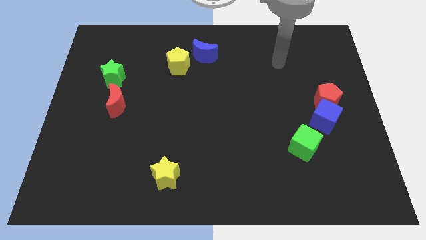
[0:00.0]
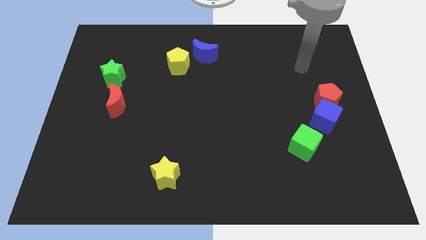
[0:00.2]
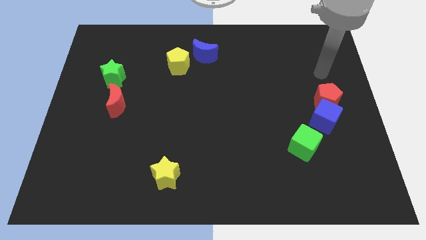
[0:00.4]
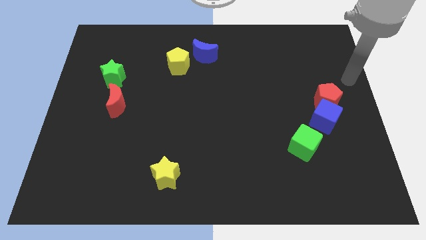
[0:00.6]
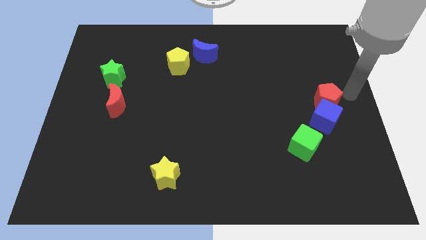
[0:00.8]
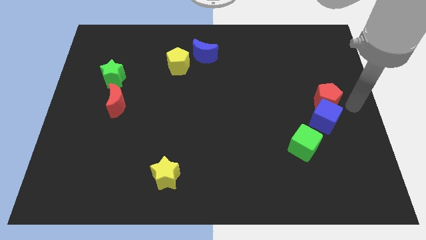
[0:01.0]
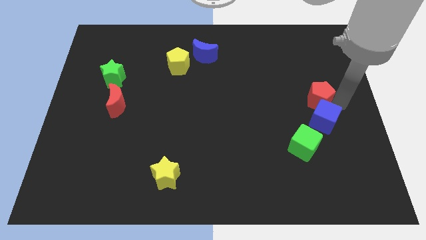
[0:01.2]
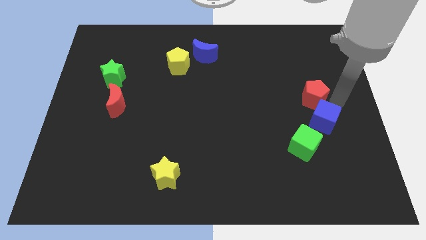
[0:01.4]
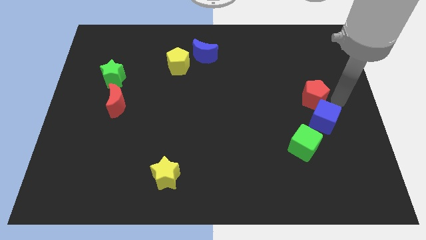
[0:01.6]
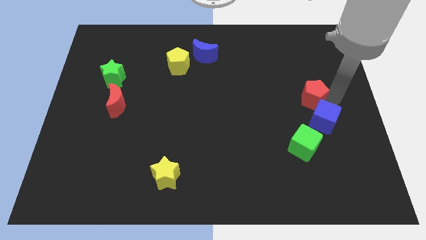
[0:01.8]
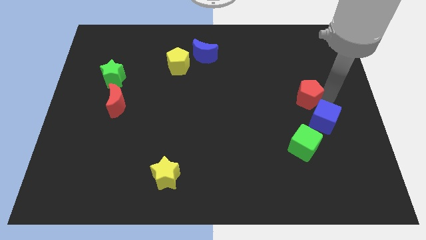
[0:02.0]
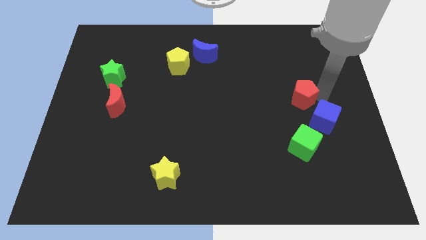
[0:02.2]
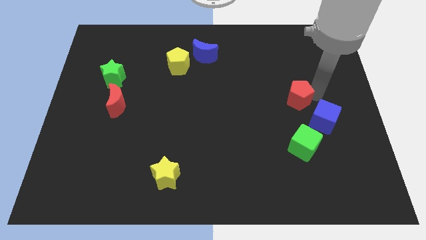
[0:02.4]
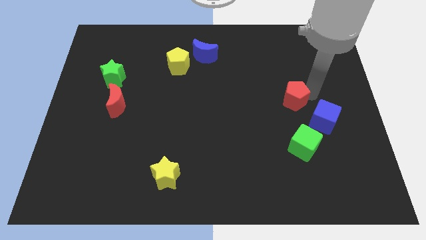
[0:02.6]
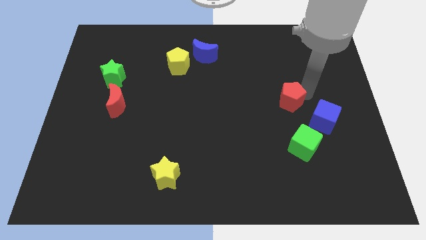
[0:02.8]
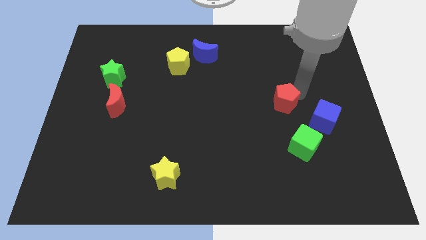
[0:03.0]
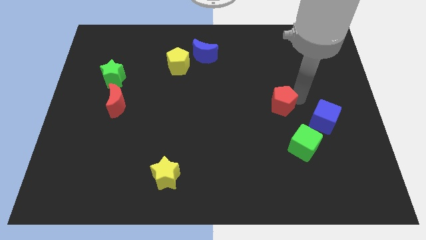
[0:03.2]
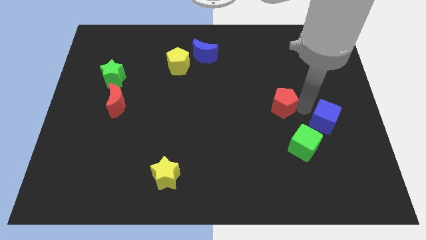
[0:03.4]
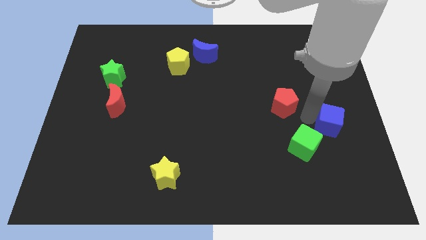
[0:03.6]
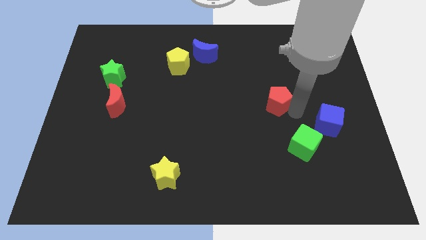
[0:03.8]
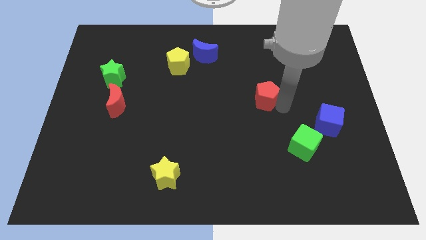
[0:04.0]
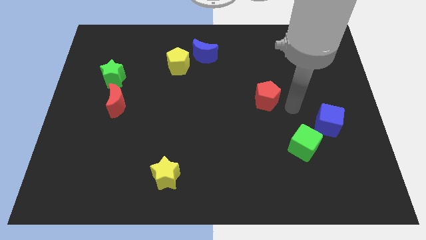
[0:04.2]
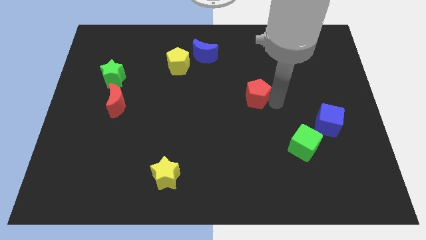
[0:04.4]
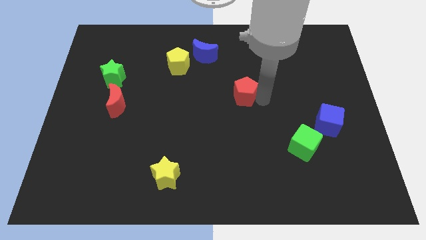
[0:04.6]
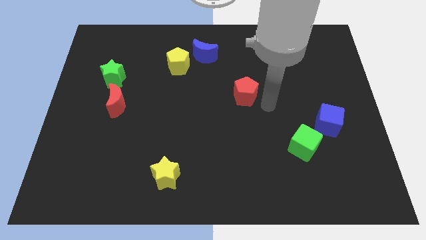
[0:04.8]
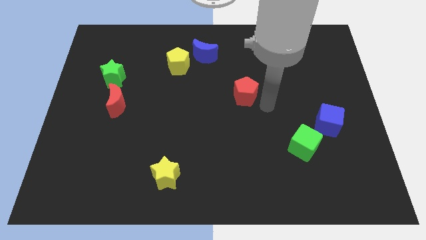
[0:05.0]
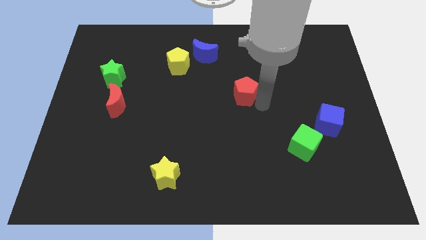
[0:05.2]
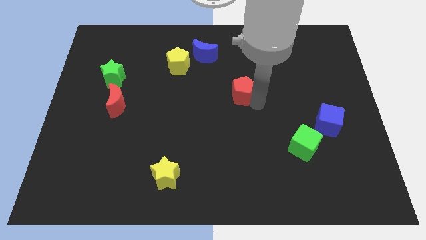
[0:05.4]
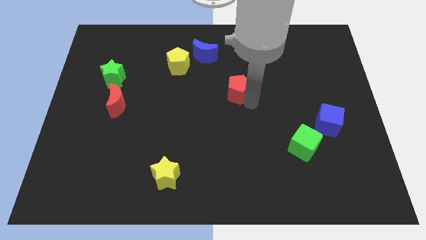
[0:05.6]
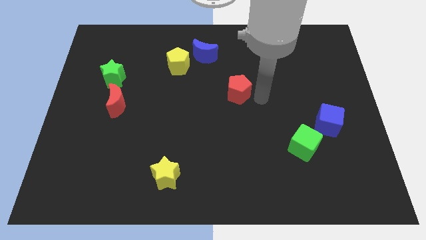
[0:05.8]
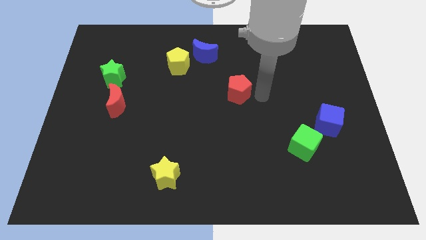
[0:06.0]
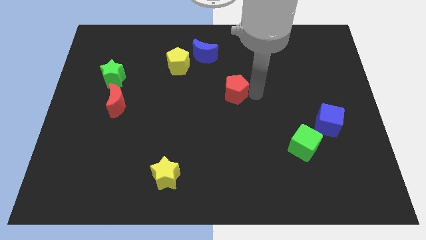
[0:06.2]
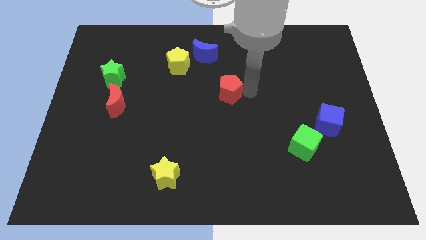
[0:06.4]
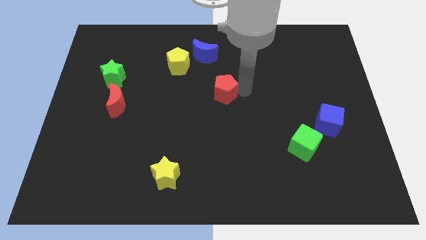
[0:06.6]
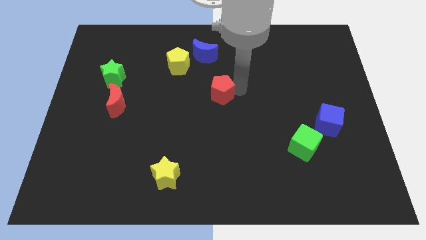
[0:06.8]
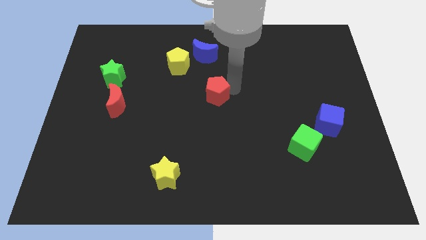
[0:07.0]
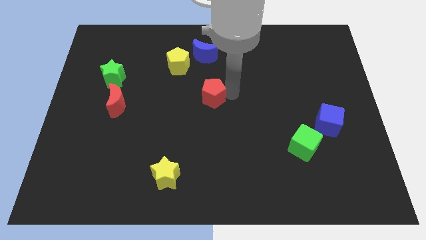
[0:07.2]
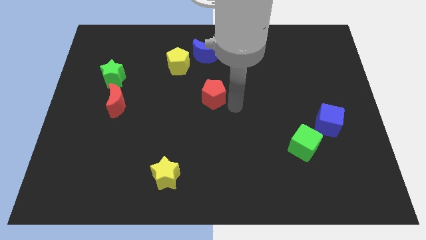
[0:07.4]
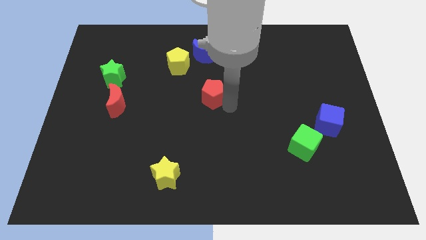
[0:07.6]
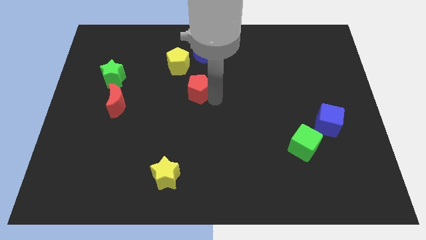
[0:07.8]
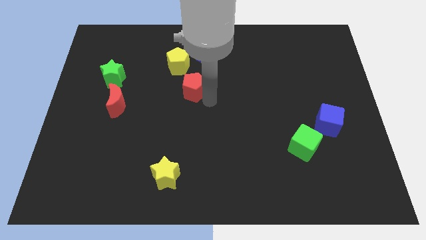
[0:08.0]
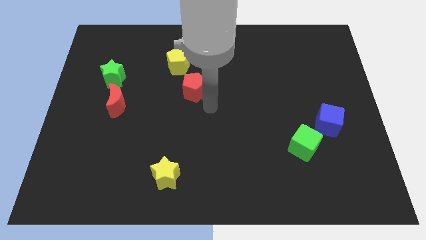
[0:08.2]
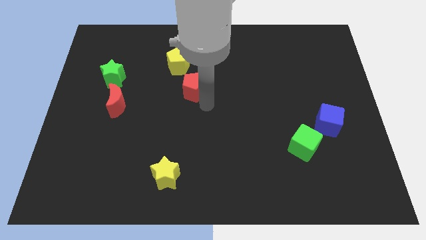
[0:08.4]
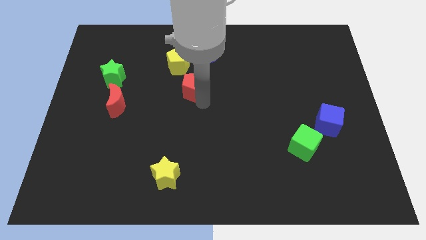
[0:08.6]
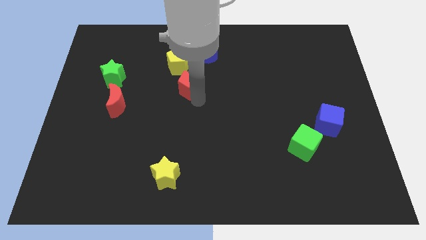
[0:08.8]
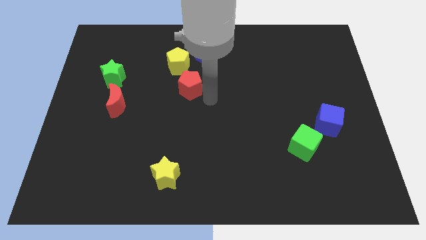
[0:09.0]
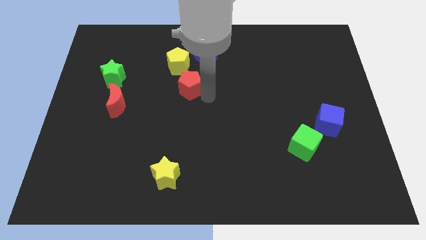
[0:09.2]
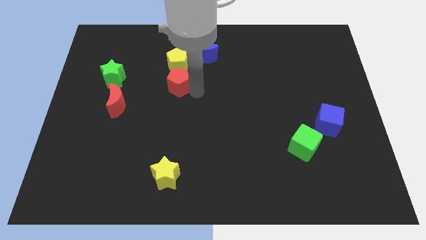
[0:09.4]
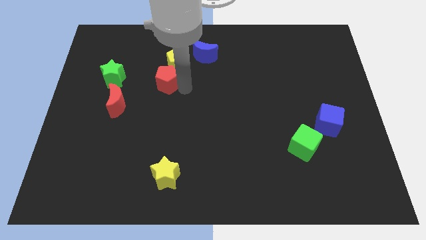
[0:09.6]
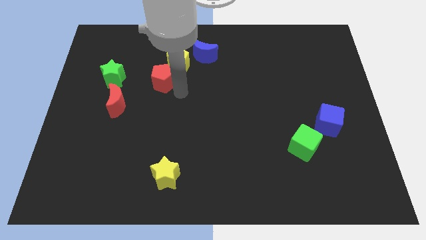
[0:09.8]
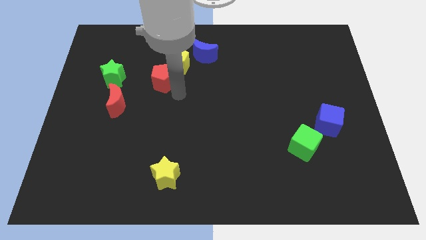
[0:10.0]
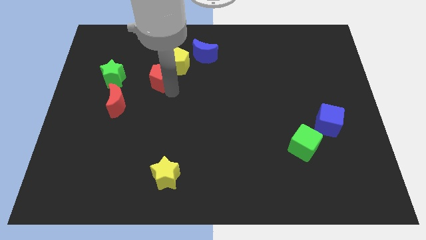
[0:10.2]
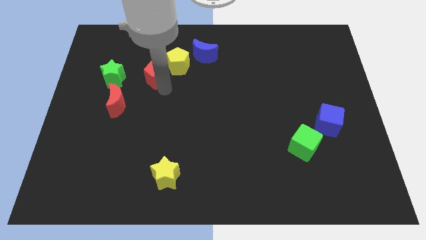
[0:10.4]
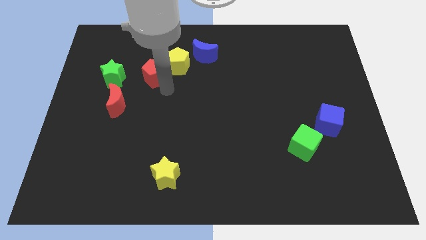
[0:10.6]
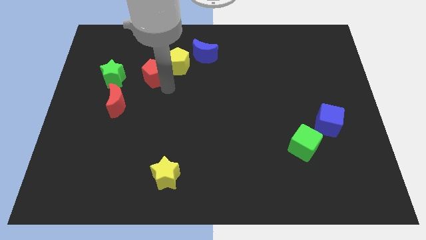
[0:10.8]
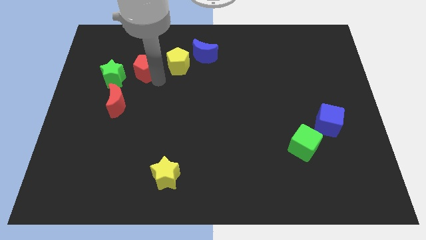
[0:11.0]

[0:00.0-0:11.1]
put the red pentagon to the top right of the green star

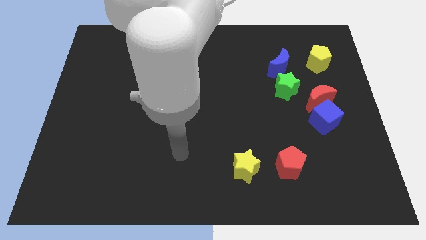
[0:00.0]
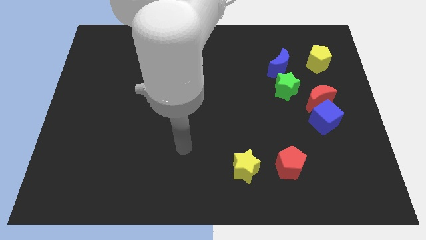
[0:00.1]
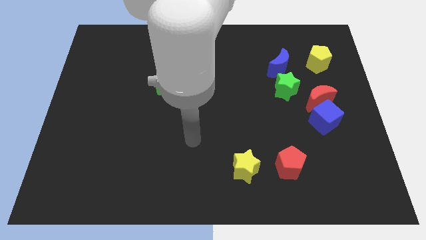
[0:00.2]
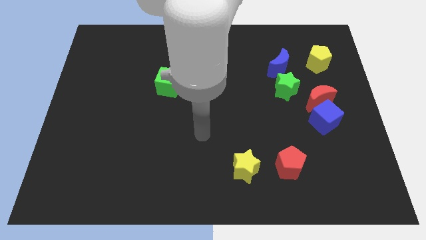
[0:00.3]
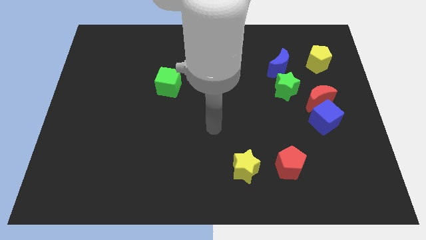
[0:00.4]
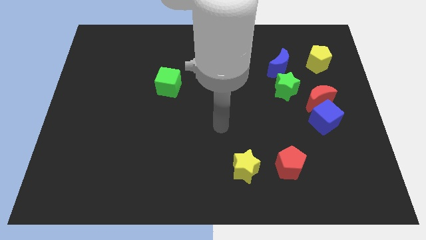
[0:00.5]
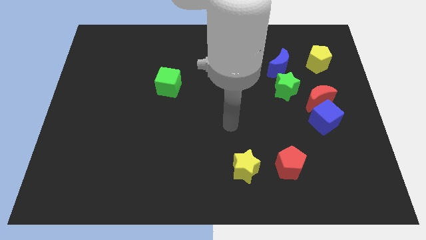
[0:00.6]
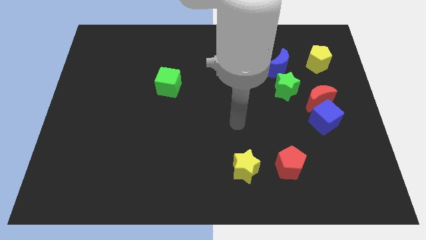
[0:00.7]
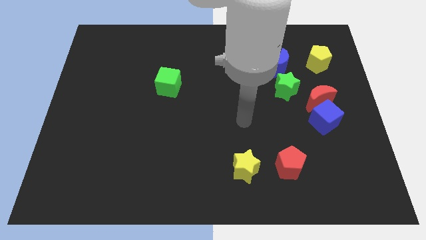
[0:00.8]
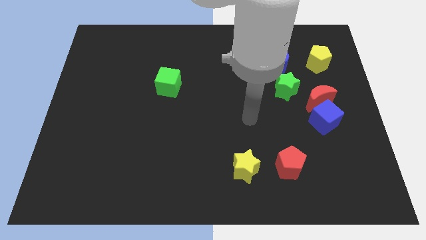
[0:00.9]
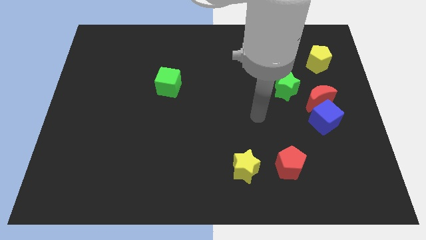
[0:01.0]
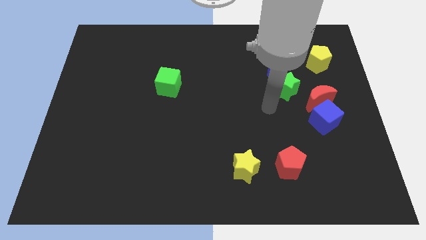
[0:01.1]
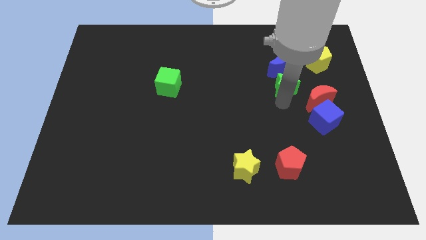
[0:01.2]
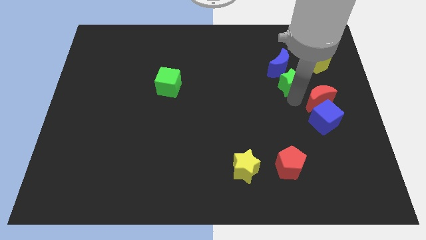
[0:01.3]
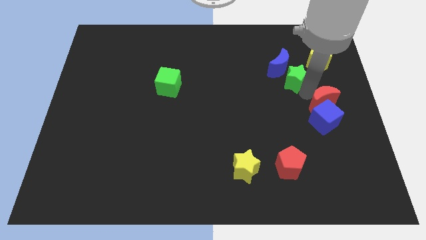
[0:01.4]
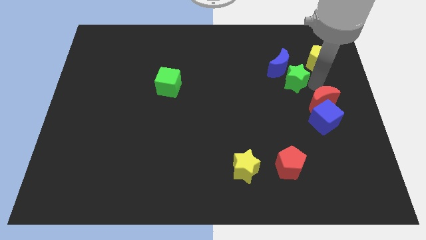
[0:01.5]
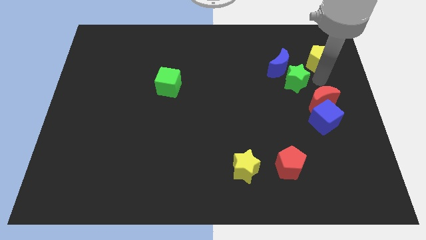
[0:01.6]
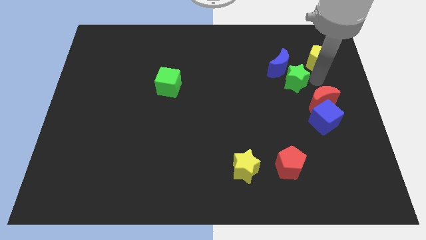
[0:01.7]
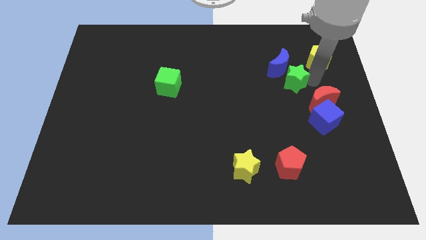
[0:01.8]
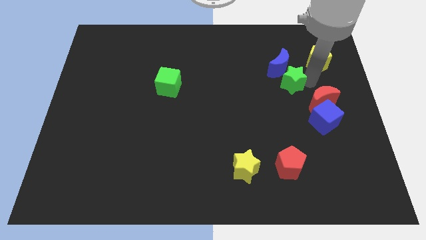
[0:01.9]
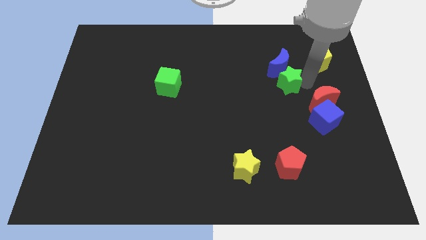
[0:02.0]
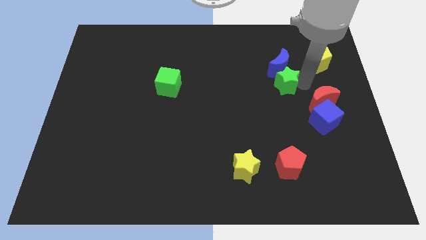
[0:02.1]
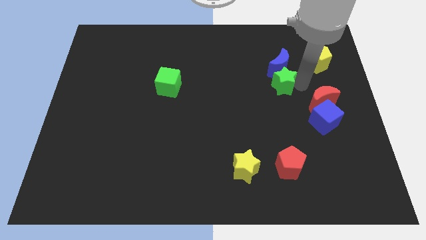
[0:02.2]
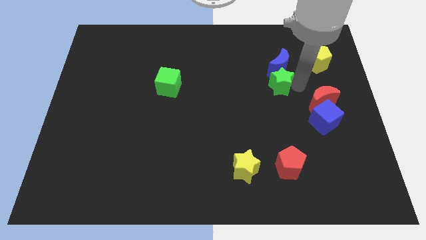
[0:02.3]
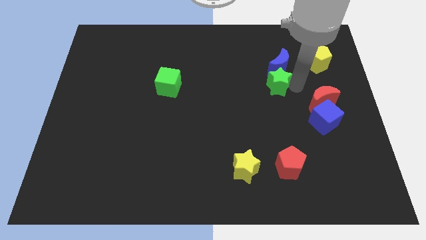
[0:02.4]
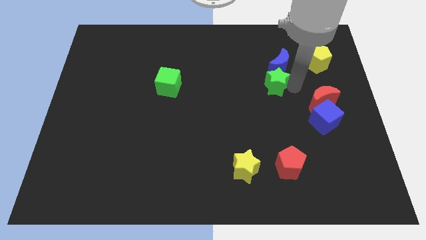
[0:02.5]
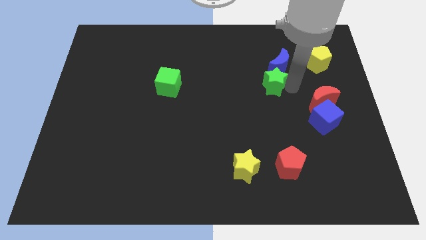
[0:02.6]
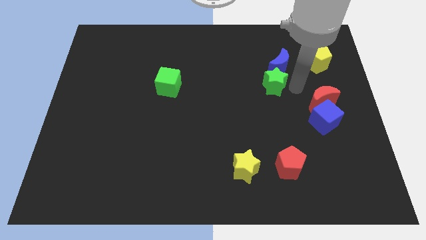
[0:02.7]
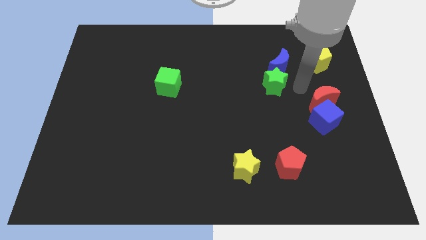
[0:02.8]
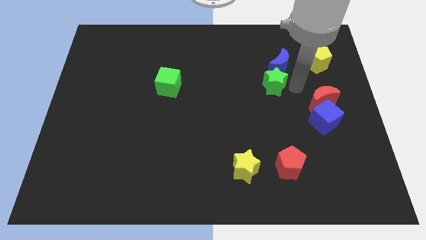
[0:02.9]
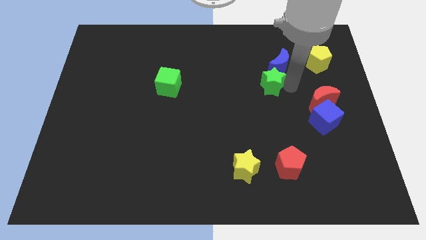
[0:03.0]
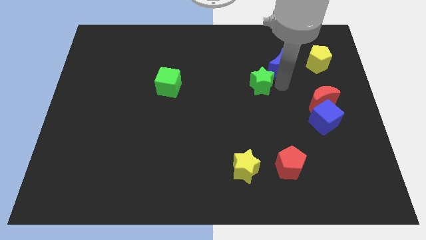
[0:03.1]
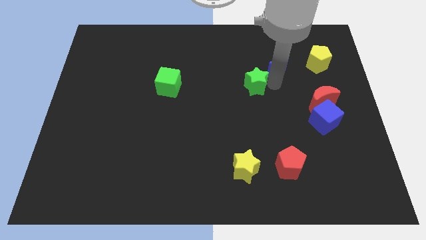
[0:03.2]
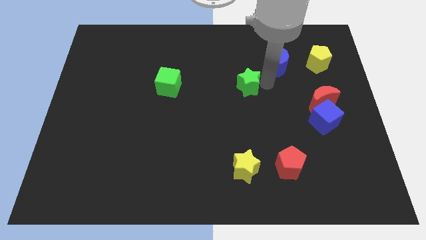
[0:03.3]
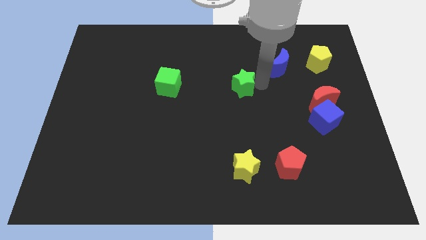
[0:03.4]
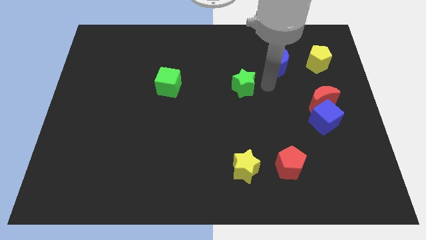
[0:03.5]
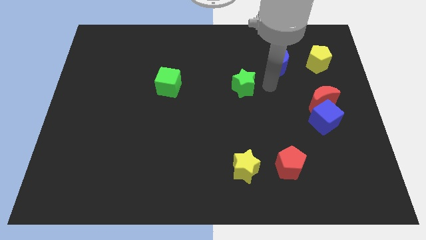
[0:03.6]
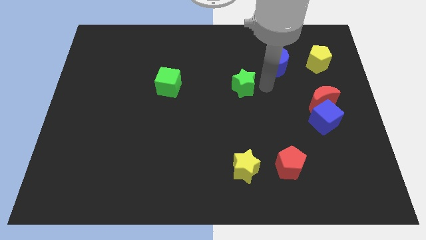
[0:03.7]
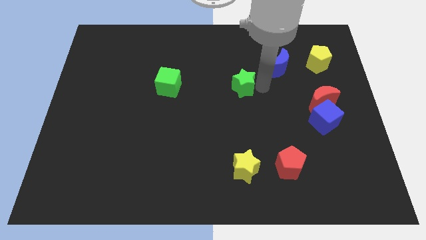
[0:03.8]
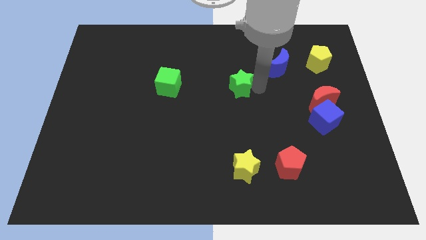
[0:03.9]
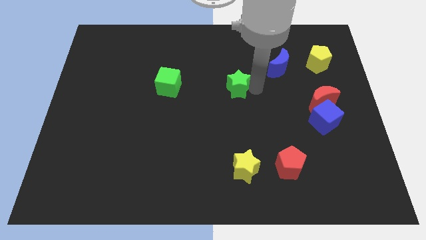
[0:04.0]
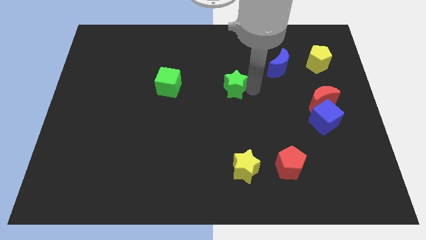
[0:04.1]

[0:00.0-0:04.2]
slide the green star to the right of the green cube
